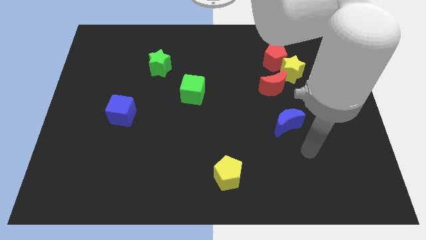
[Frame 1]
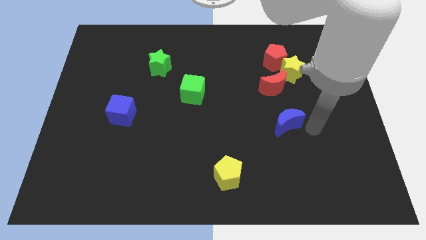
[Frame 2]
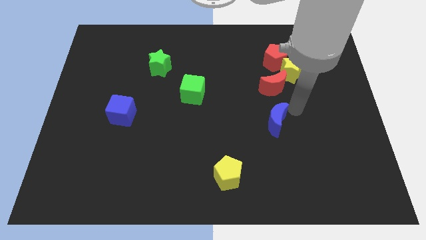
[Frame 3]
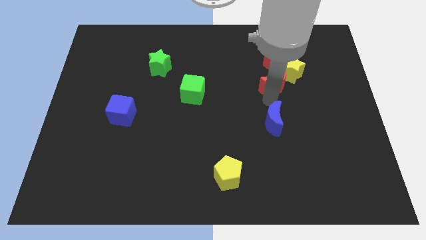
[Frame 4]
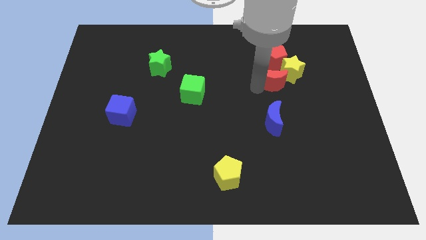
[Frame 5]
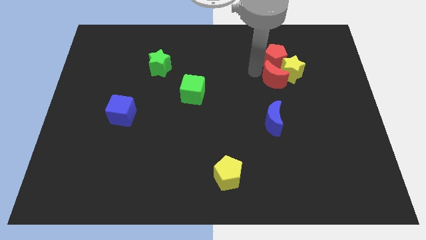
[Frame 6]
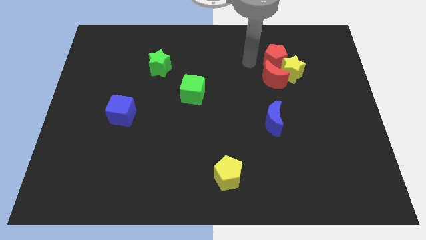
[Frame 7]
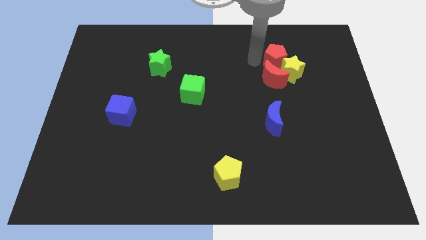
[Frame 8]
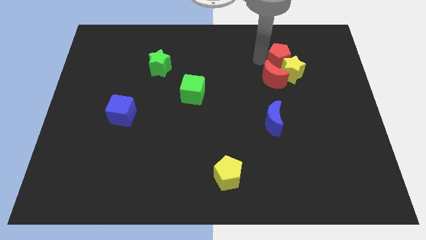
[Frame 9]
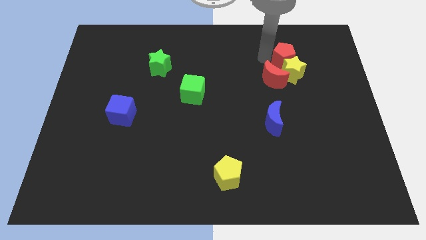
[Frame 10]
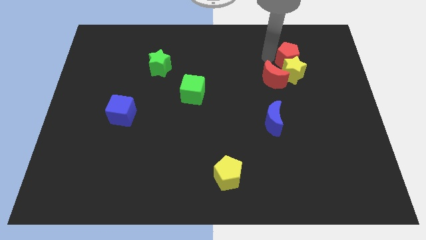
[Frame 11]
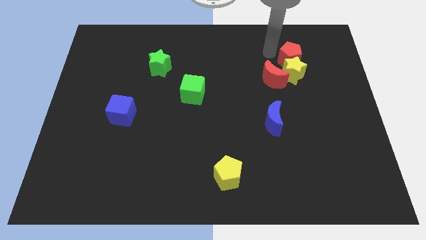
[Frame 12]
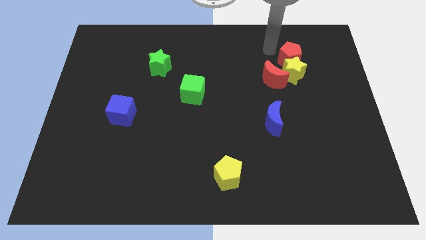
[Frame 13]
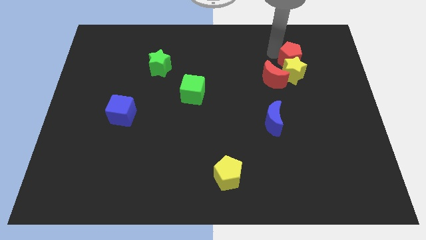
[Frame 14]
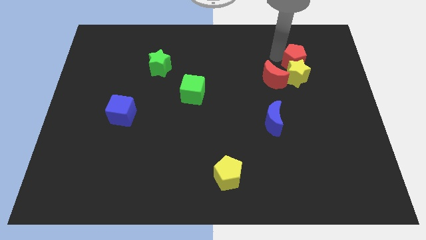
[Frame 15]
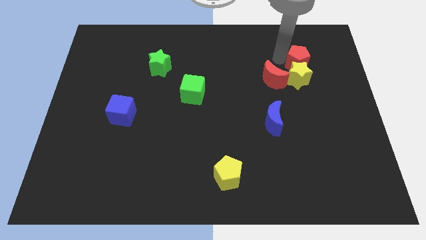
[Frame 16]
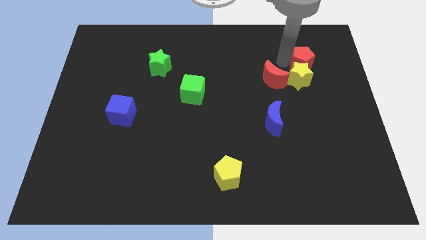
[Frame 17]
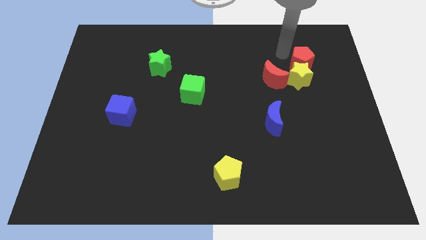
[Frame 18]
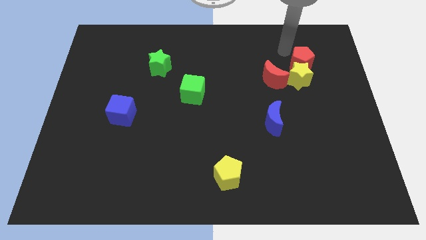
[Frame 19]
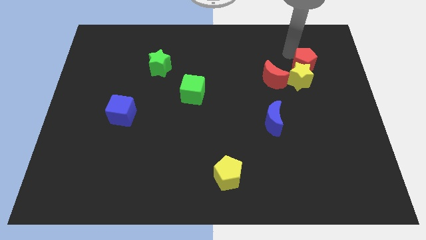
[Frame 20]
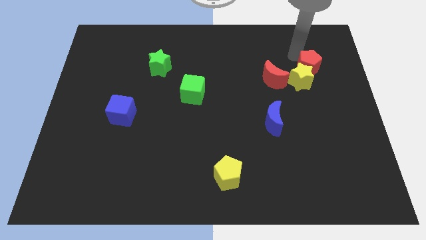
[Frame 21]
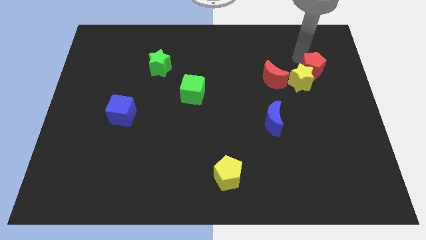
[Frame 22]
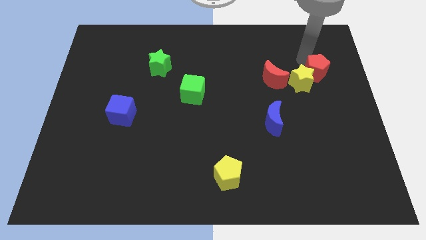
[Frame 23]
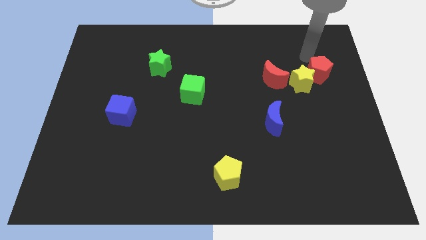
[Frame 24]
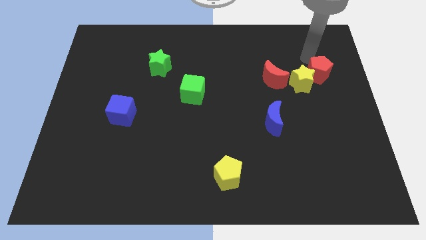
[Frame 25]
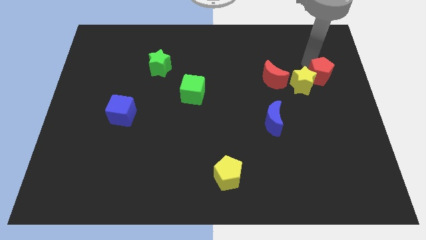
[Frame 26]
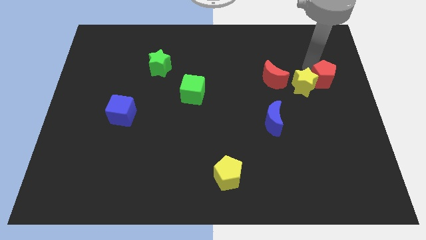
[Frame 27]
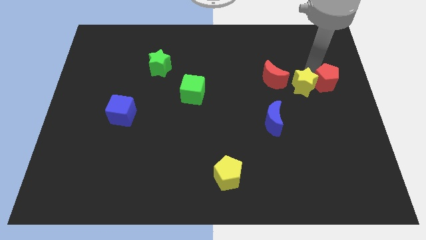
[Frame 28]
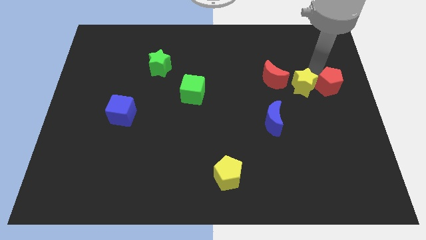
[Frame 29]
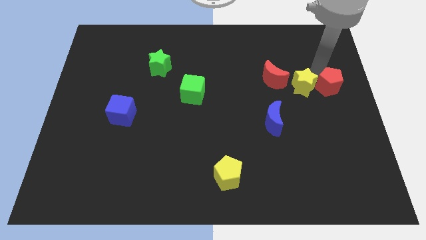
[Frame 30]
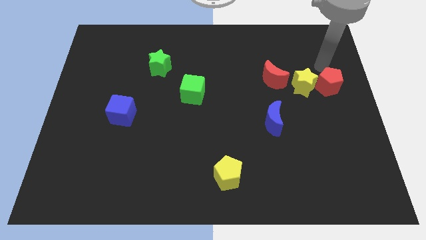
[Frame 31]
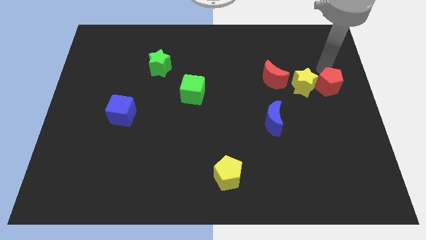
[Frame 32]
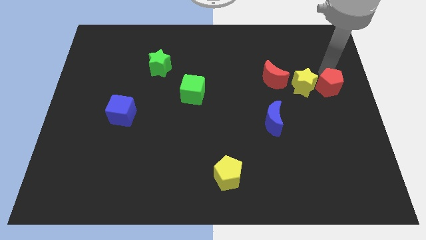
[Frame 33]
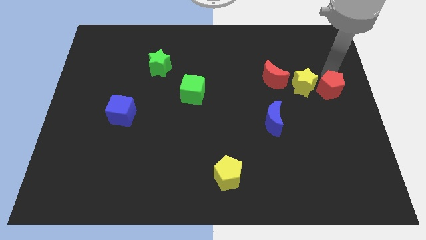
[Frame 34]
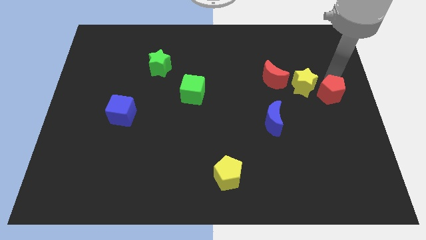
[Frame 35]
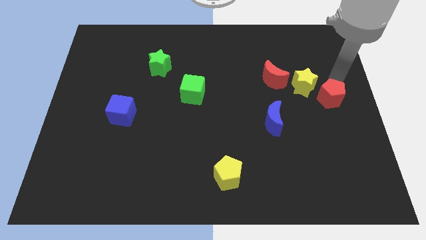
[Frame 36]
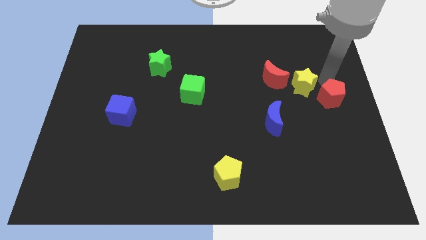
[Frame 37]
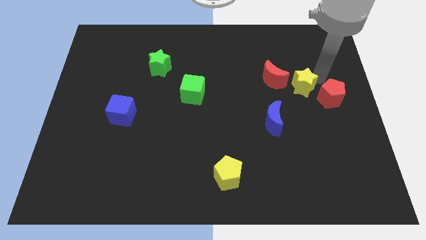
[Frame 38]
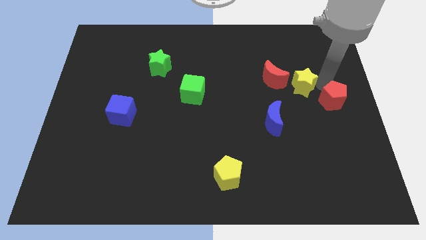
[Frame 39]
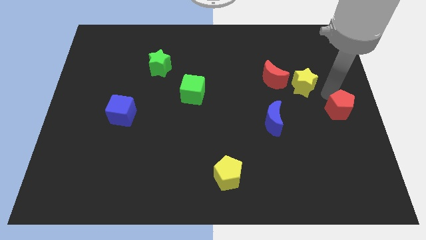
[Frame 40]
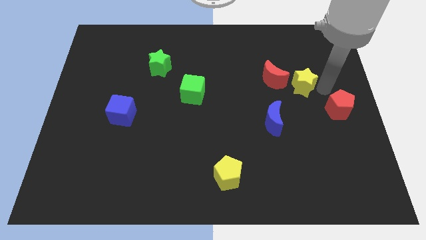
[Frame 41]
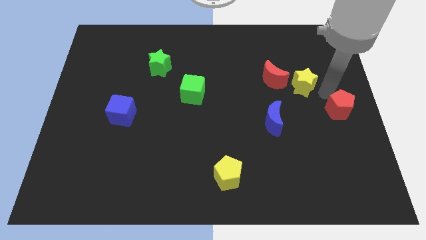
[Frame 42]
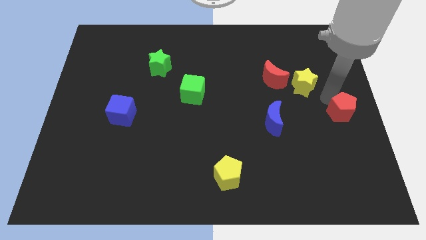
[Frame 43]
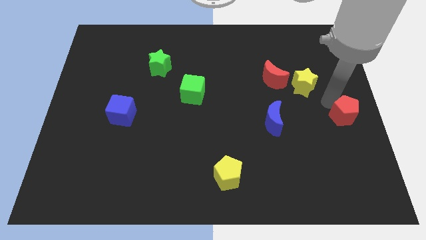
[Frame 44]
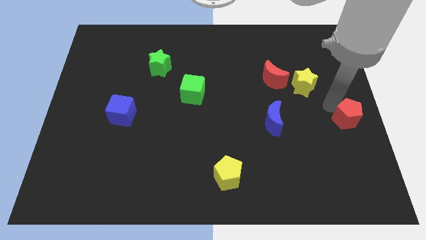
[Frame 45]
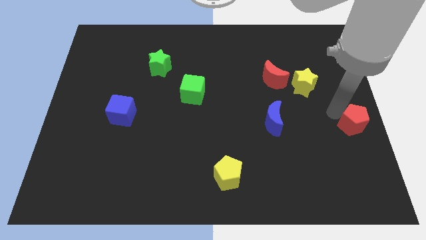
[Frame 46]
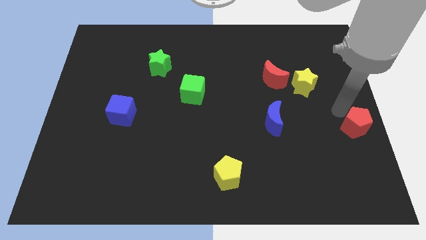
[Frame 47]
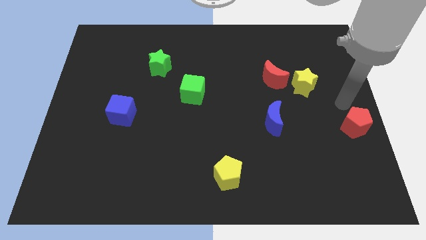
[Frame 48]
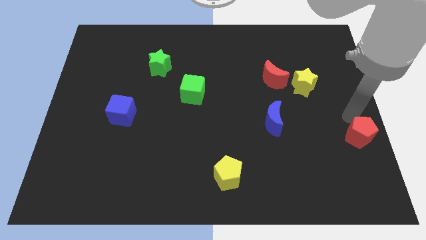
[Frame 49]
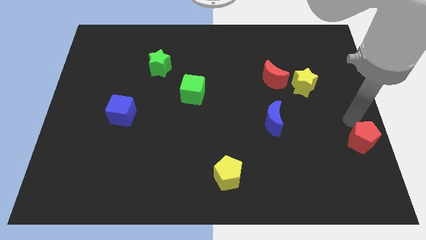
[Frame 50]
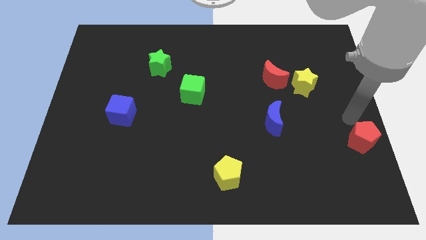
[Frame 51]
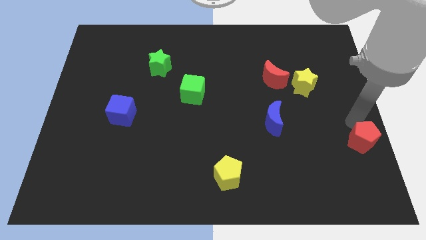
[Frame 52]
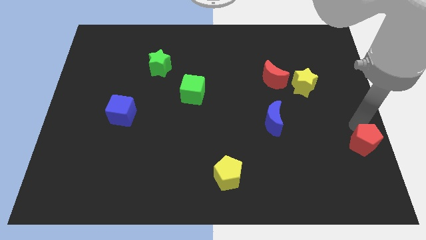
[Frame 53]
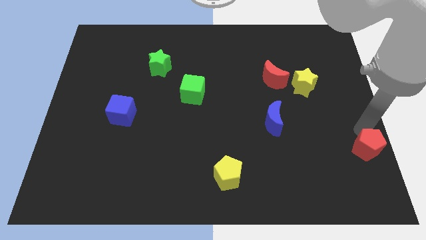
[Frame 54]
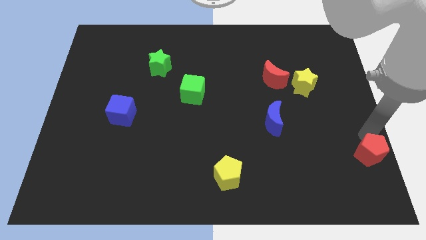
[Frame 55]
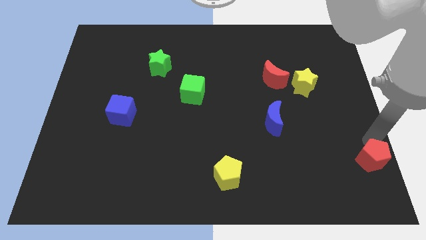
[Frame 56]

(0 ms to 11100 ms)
push the red pentagon to the bottom right

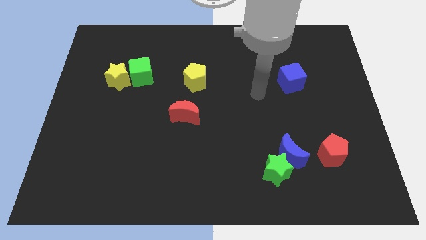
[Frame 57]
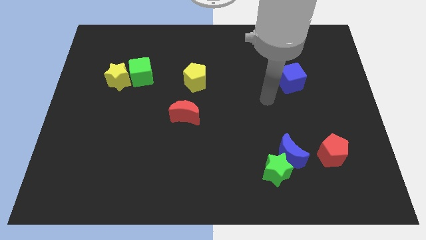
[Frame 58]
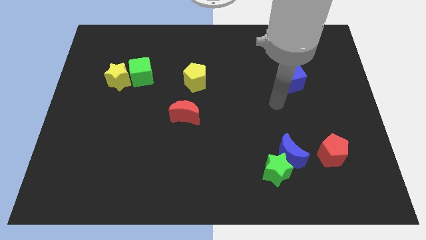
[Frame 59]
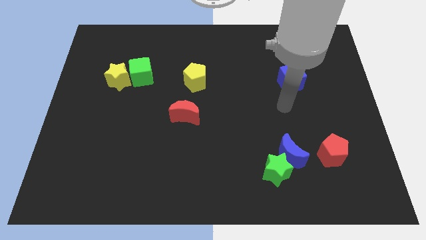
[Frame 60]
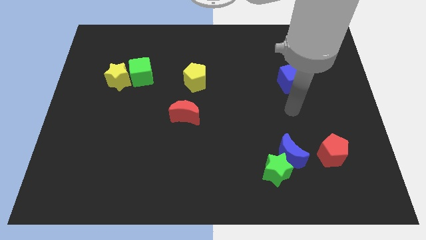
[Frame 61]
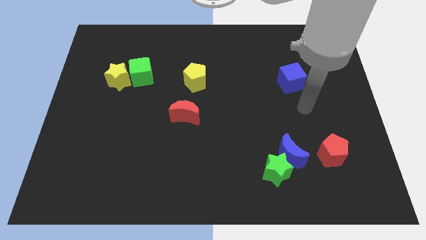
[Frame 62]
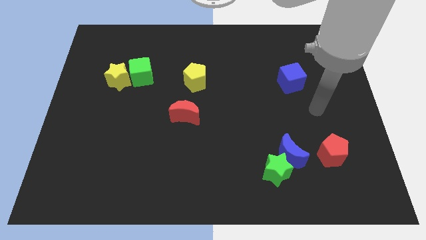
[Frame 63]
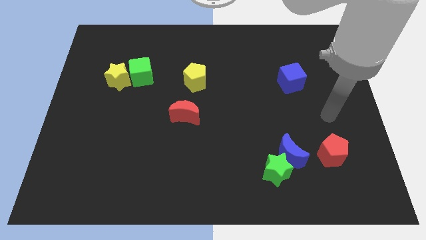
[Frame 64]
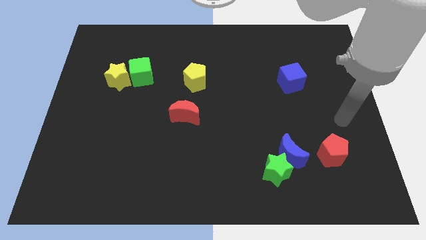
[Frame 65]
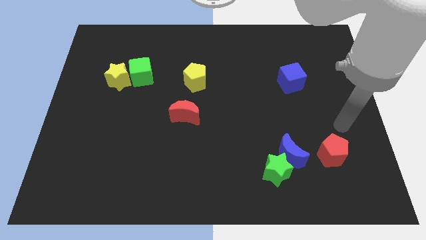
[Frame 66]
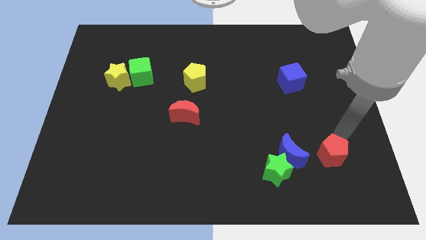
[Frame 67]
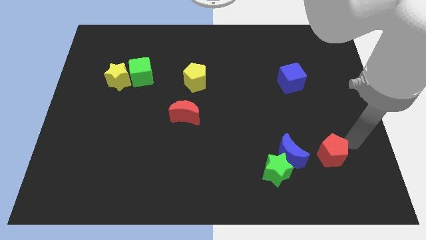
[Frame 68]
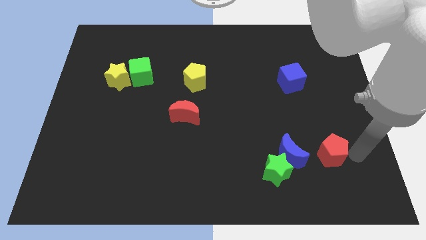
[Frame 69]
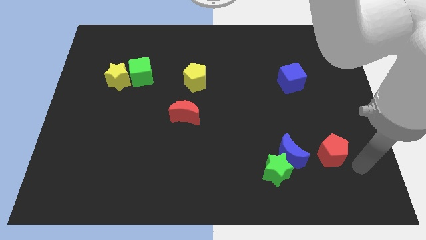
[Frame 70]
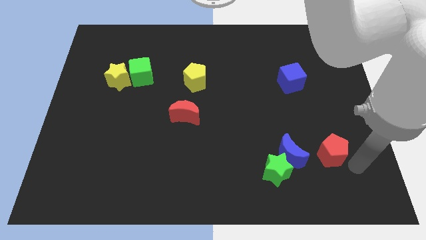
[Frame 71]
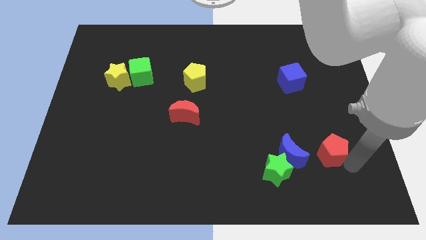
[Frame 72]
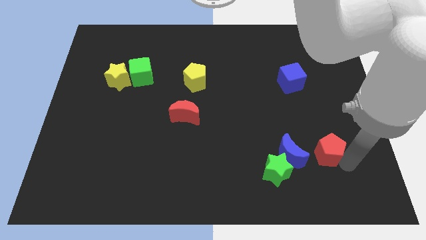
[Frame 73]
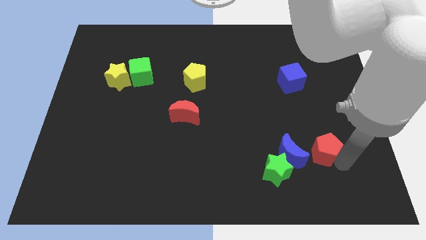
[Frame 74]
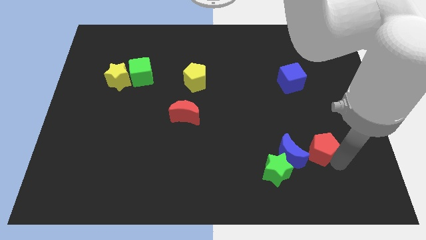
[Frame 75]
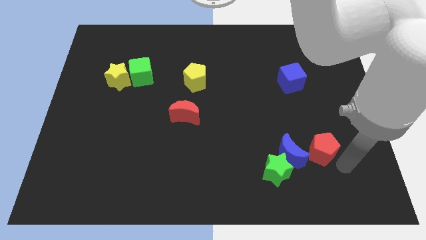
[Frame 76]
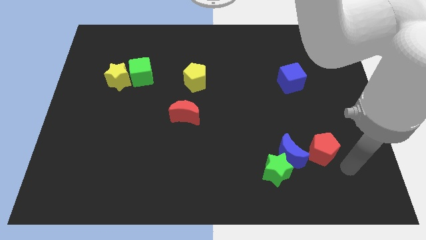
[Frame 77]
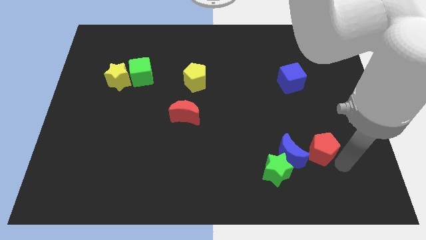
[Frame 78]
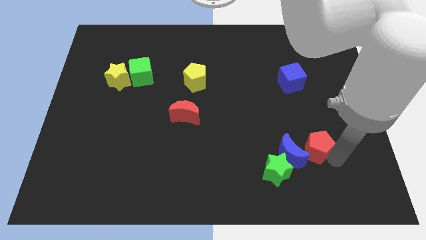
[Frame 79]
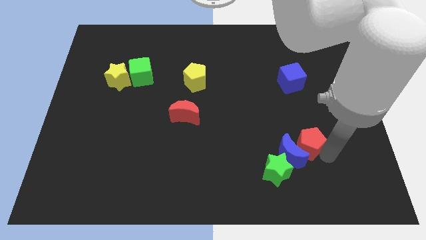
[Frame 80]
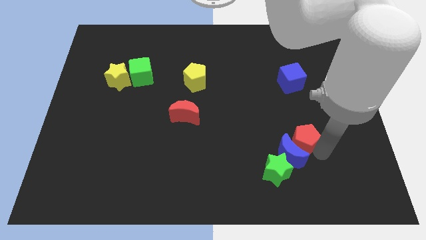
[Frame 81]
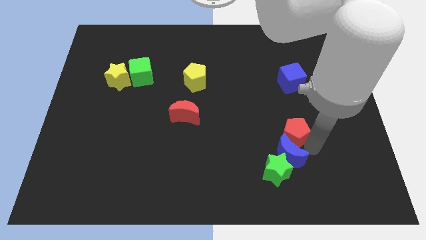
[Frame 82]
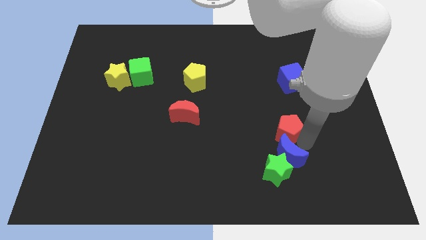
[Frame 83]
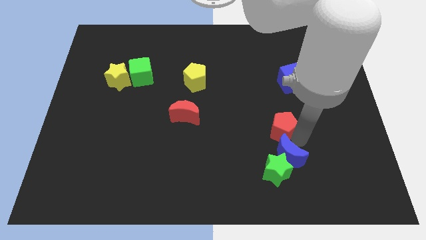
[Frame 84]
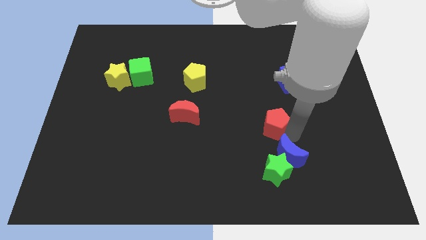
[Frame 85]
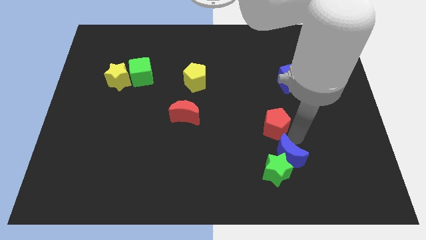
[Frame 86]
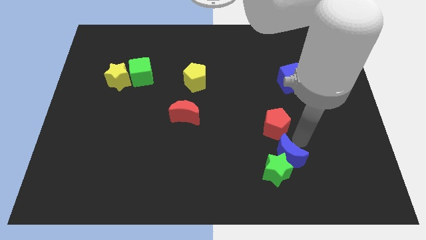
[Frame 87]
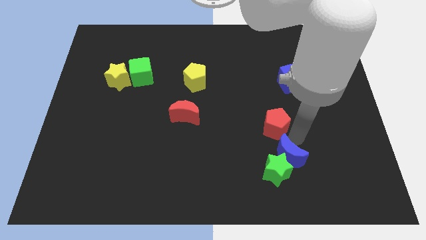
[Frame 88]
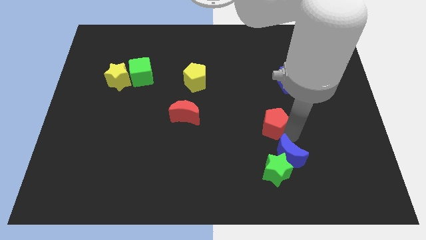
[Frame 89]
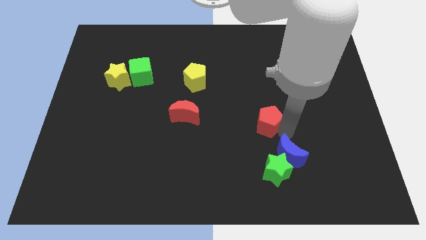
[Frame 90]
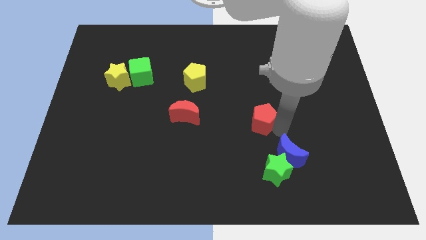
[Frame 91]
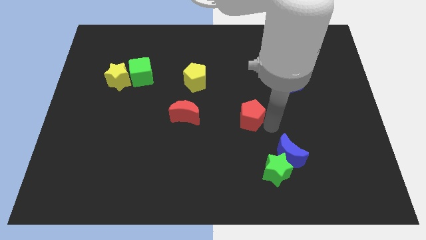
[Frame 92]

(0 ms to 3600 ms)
slide the red pentagon to the middle
